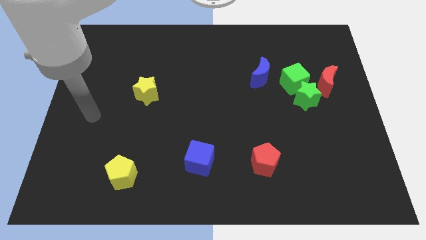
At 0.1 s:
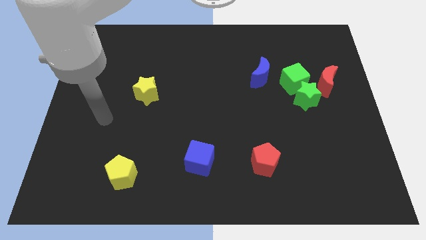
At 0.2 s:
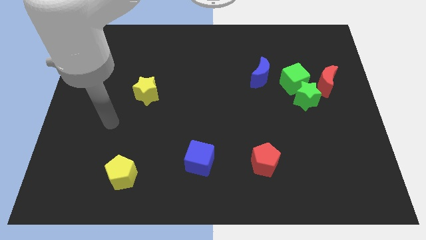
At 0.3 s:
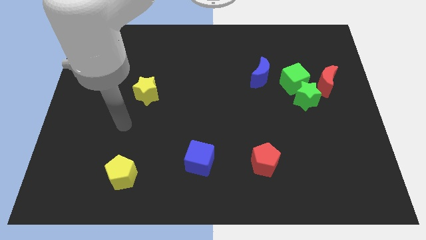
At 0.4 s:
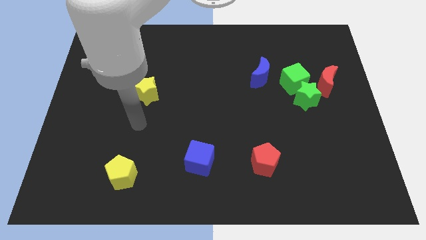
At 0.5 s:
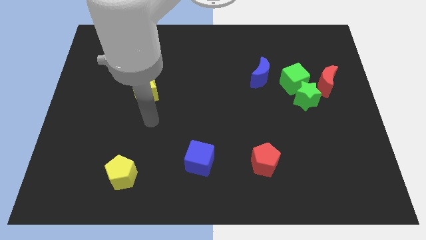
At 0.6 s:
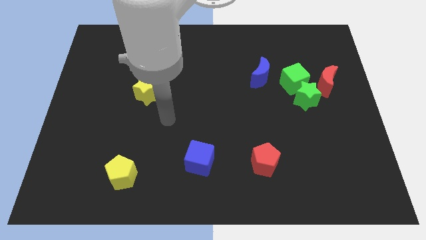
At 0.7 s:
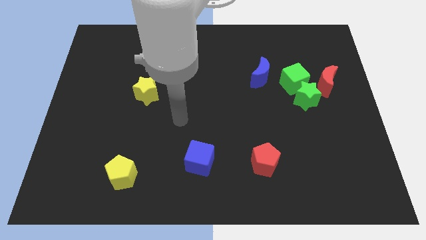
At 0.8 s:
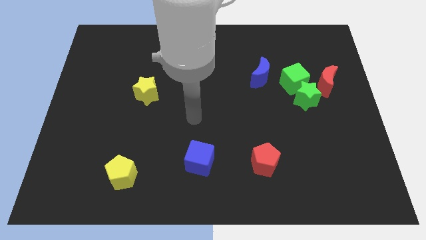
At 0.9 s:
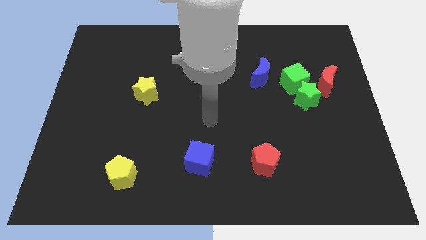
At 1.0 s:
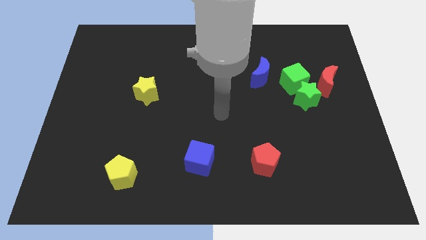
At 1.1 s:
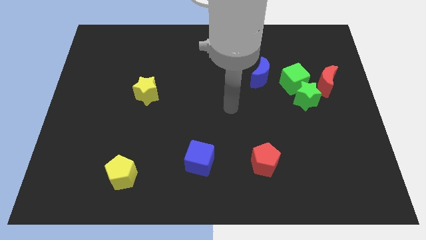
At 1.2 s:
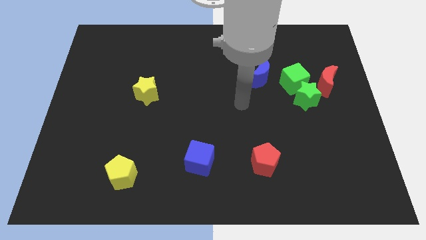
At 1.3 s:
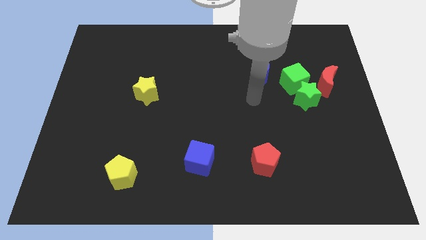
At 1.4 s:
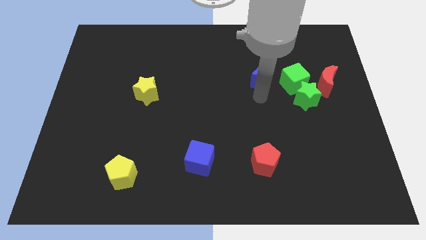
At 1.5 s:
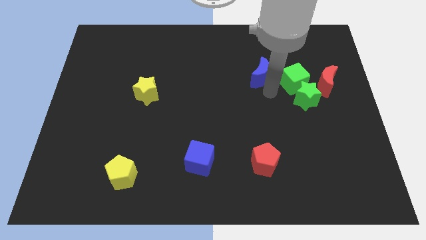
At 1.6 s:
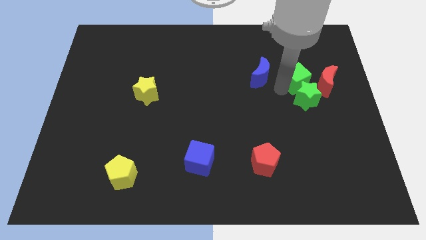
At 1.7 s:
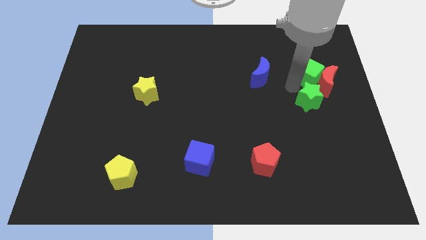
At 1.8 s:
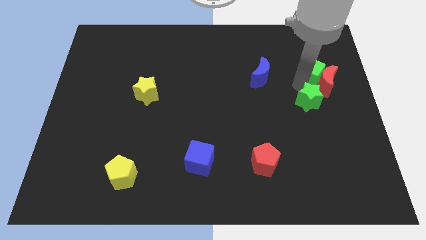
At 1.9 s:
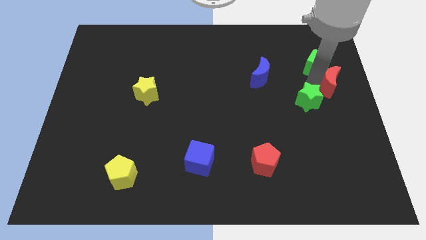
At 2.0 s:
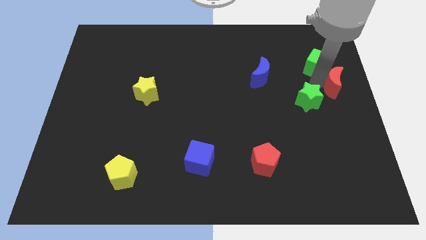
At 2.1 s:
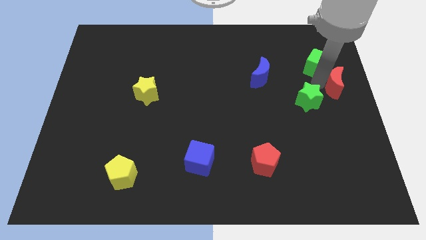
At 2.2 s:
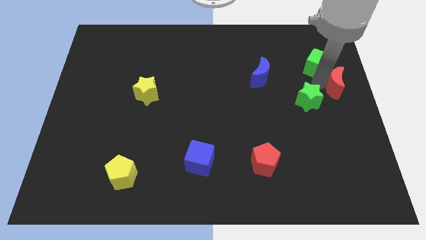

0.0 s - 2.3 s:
pull the green star apart from the green cube and red moon

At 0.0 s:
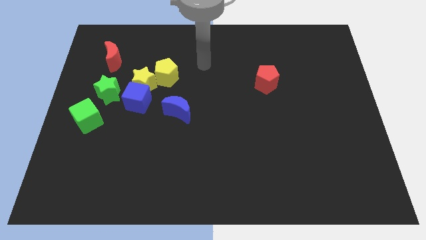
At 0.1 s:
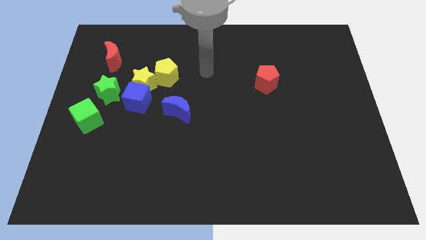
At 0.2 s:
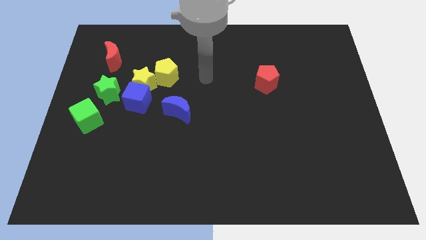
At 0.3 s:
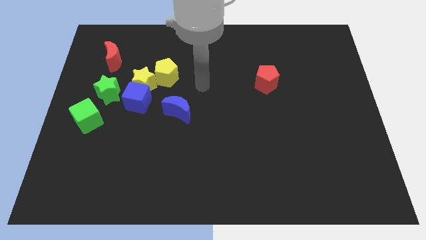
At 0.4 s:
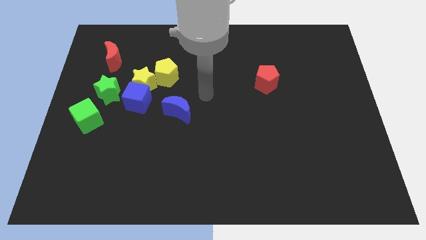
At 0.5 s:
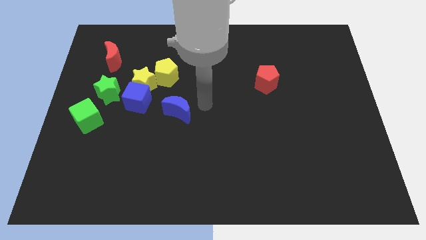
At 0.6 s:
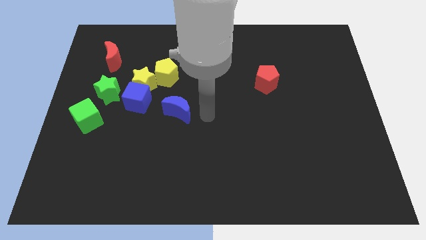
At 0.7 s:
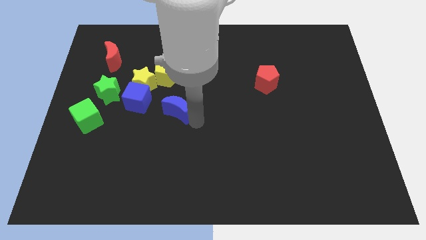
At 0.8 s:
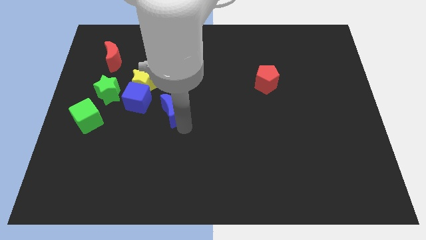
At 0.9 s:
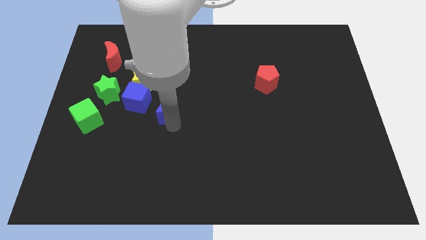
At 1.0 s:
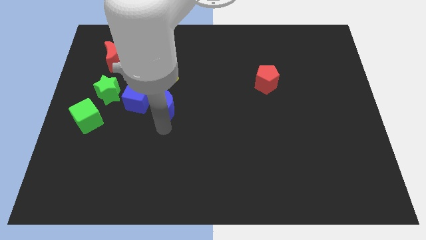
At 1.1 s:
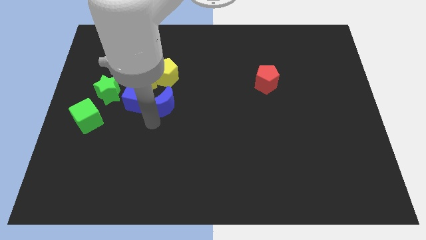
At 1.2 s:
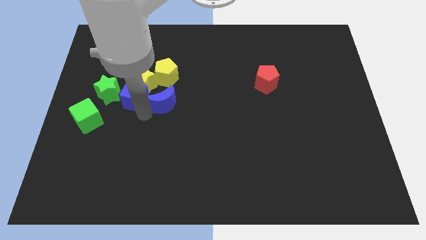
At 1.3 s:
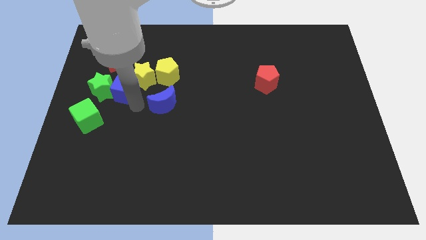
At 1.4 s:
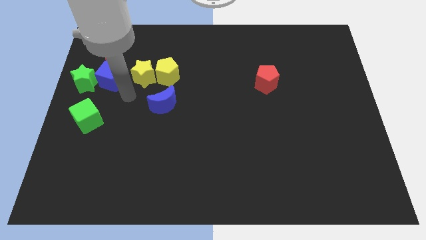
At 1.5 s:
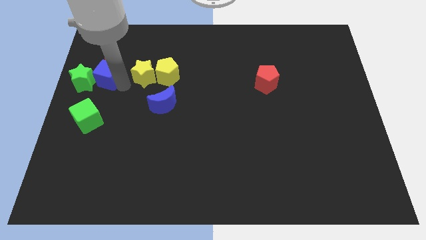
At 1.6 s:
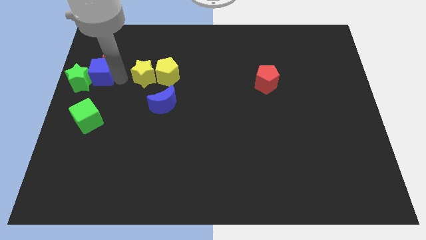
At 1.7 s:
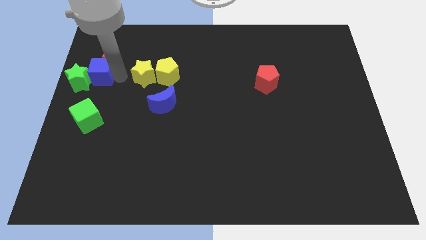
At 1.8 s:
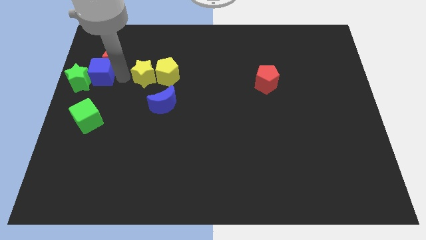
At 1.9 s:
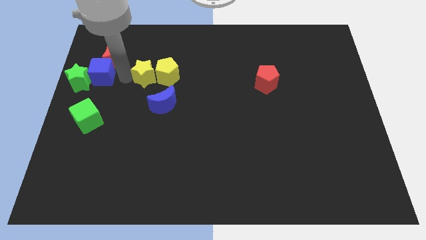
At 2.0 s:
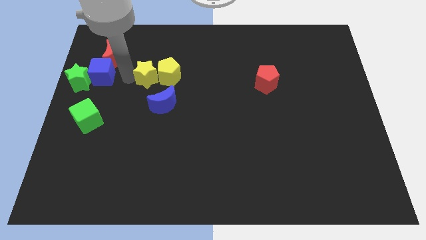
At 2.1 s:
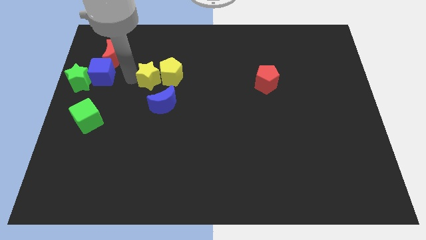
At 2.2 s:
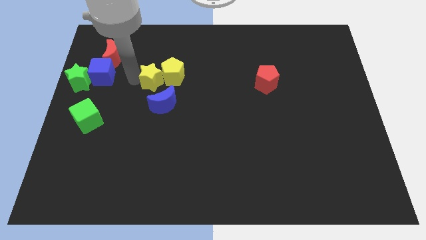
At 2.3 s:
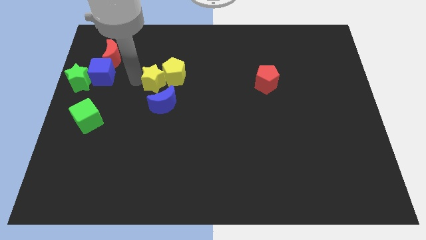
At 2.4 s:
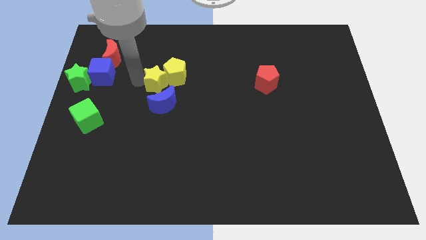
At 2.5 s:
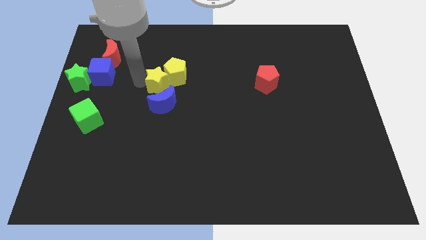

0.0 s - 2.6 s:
separate the yellow star from the blue cube, yellow pentagon, and green star

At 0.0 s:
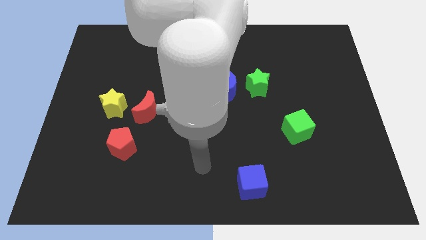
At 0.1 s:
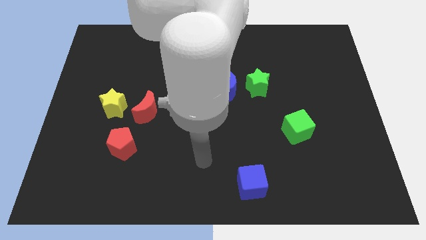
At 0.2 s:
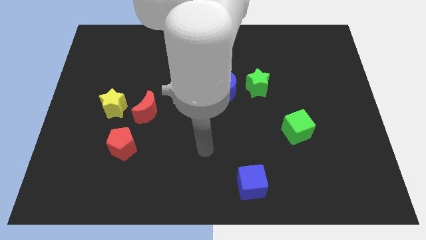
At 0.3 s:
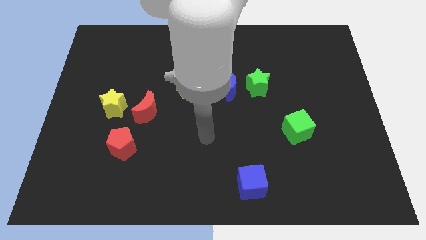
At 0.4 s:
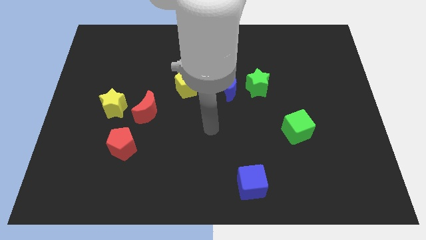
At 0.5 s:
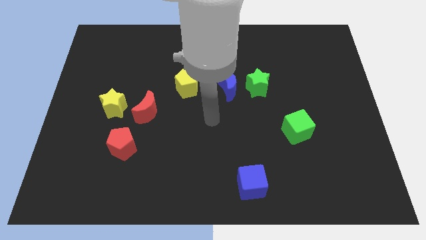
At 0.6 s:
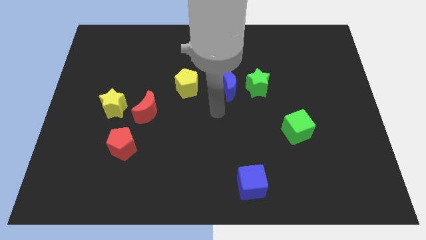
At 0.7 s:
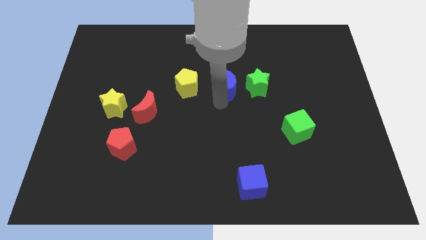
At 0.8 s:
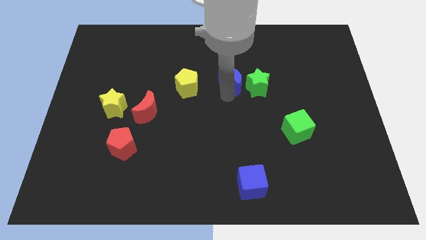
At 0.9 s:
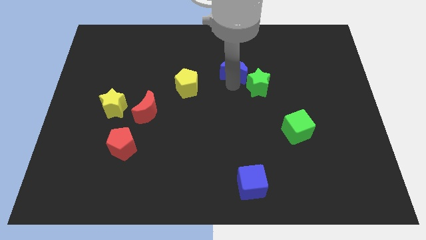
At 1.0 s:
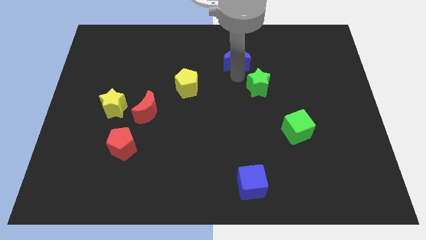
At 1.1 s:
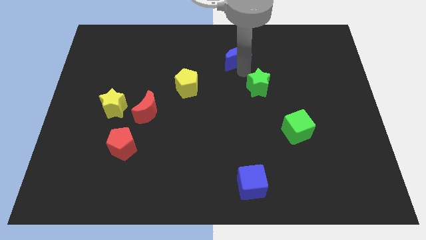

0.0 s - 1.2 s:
pull the green star apart from the blue moon

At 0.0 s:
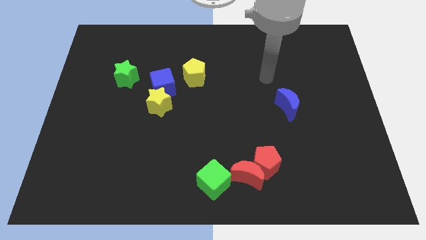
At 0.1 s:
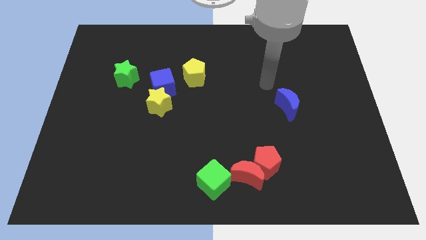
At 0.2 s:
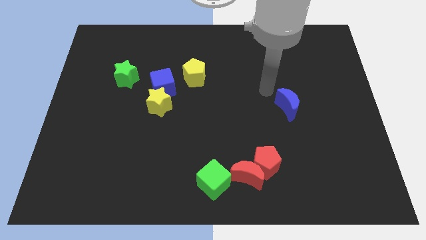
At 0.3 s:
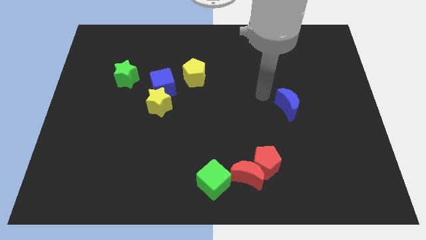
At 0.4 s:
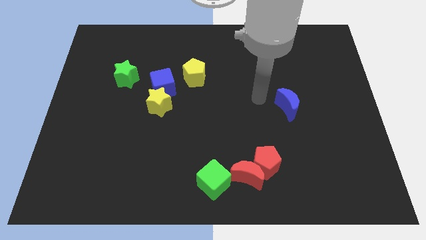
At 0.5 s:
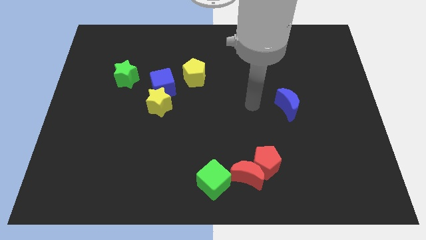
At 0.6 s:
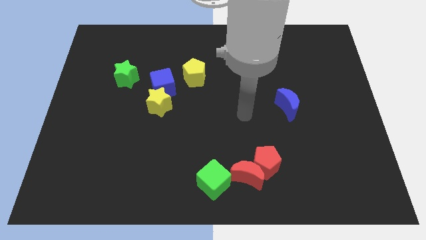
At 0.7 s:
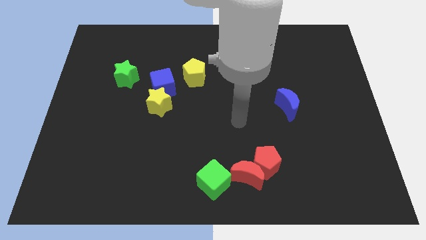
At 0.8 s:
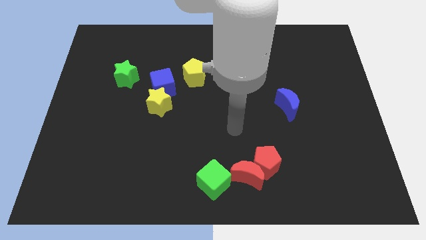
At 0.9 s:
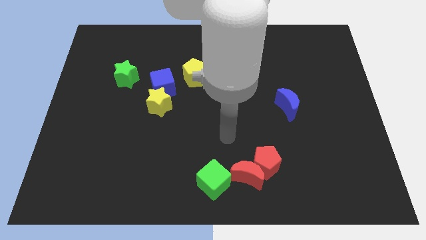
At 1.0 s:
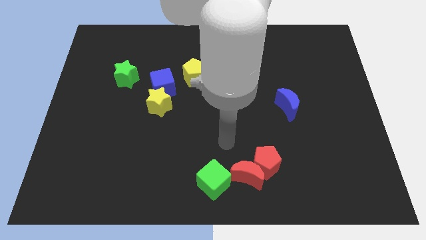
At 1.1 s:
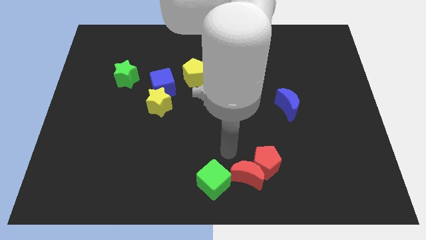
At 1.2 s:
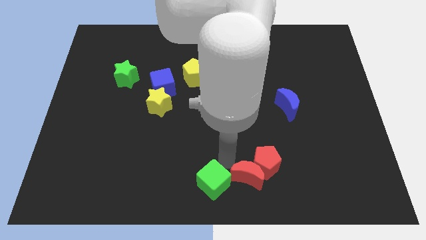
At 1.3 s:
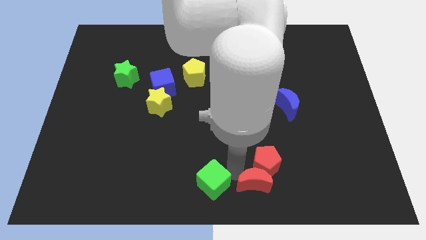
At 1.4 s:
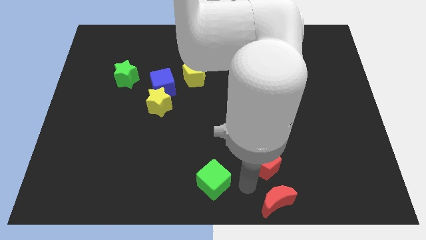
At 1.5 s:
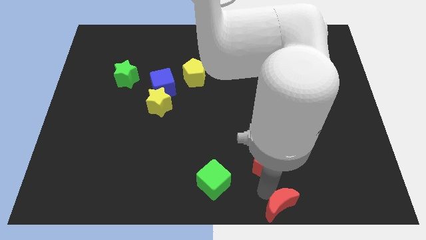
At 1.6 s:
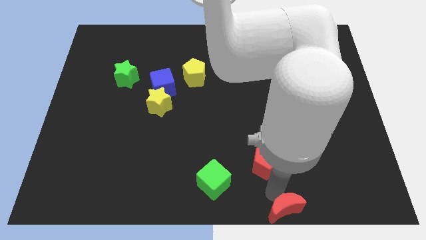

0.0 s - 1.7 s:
separate the red pentagon from the red moon

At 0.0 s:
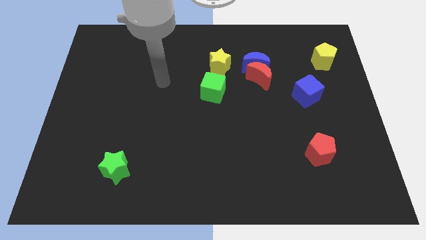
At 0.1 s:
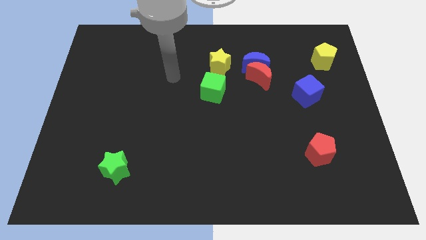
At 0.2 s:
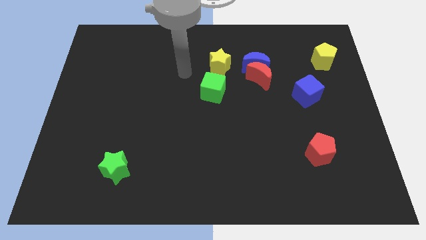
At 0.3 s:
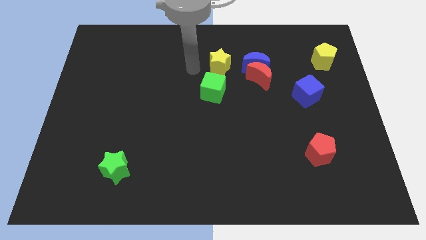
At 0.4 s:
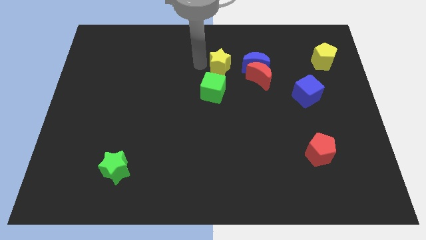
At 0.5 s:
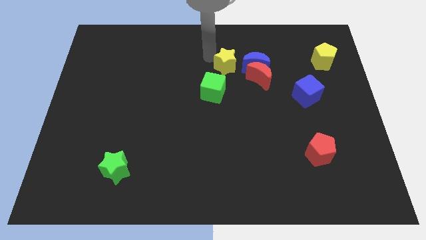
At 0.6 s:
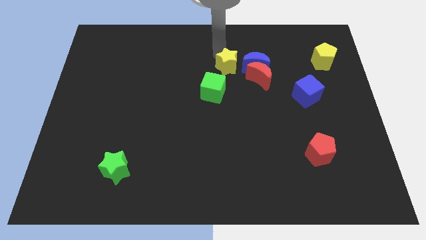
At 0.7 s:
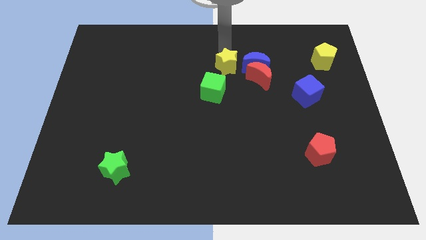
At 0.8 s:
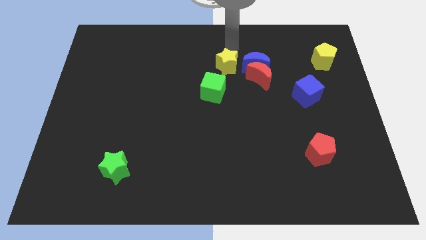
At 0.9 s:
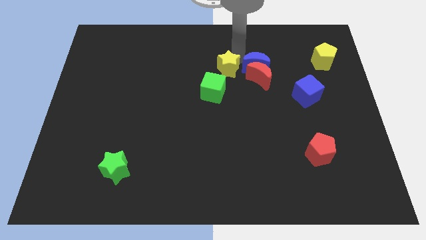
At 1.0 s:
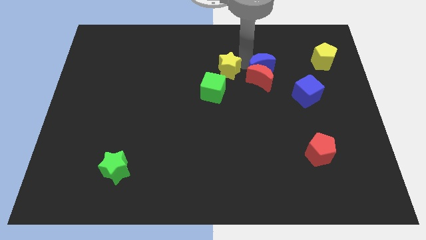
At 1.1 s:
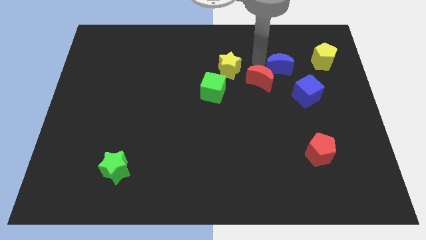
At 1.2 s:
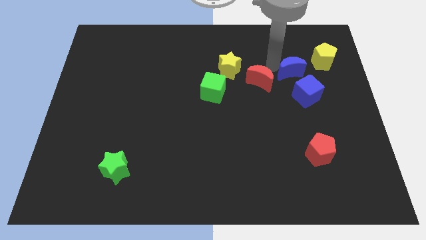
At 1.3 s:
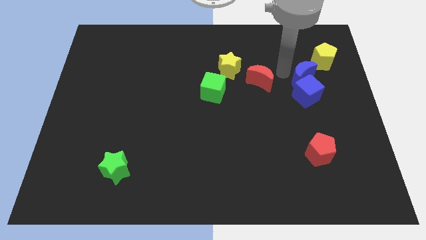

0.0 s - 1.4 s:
pull the red moon apart from the blue moon
